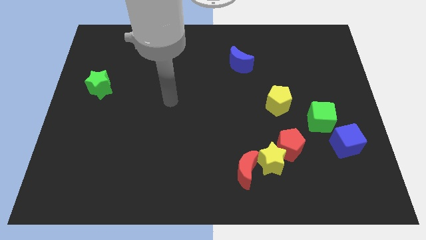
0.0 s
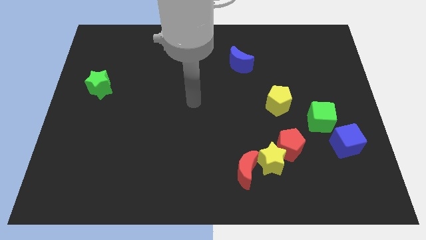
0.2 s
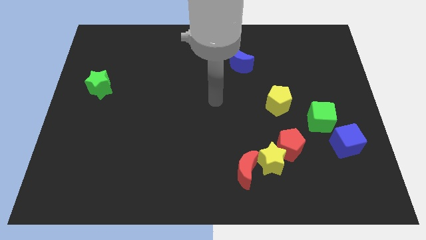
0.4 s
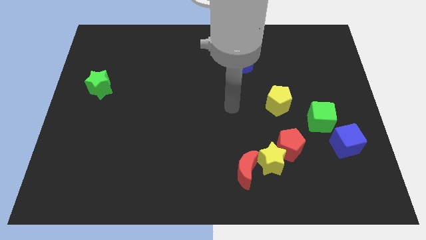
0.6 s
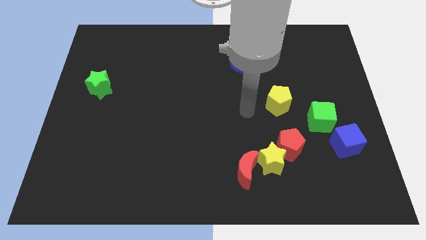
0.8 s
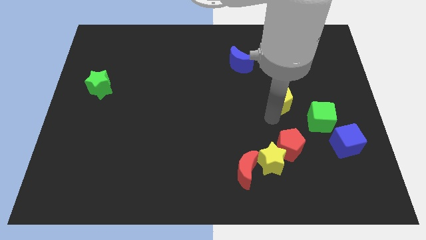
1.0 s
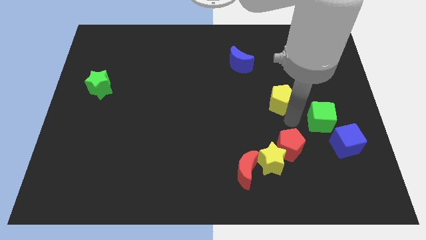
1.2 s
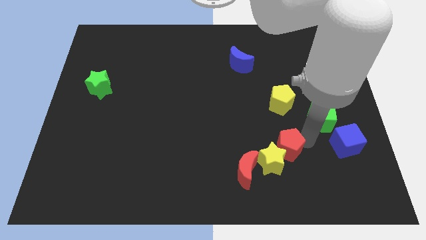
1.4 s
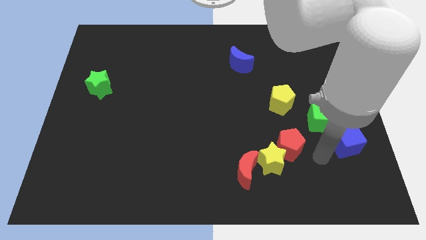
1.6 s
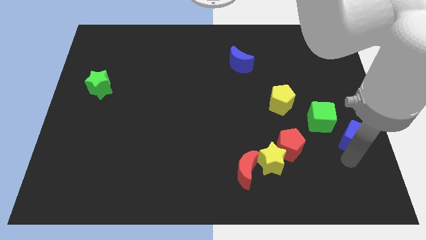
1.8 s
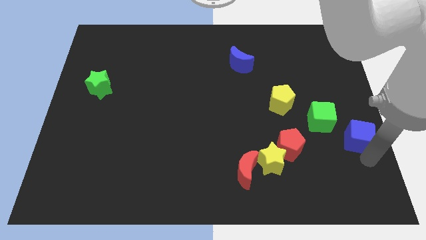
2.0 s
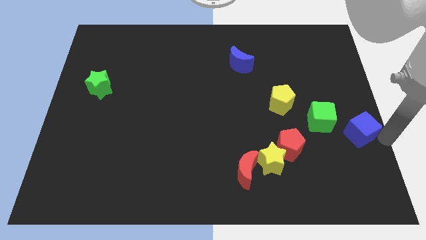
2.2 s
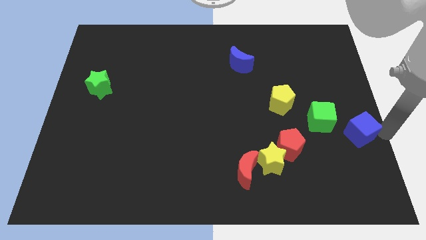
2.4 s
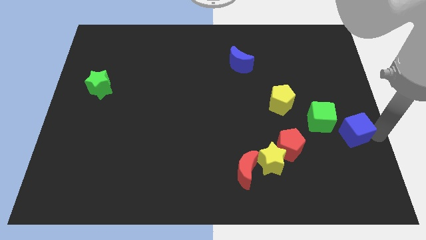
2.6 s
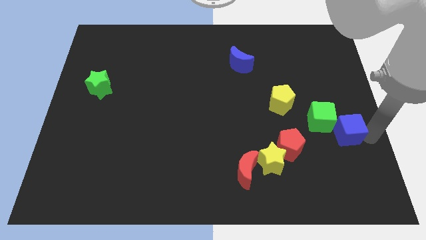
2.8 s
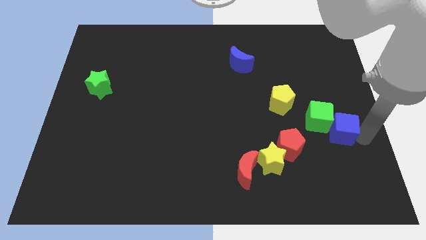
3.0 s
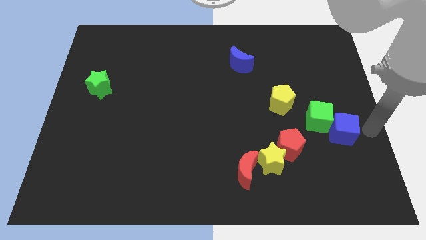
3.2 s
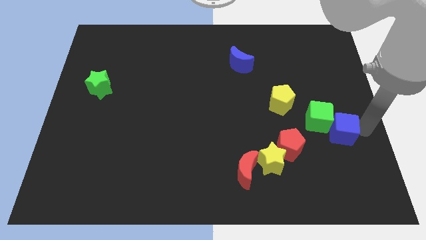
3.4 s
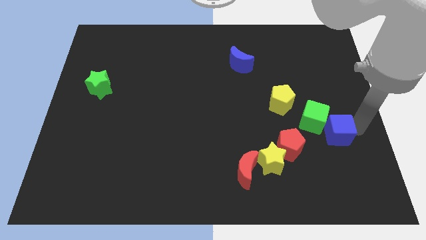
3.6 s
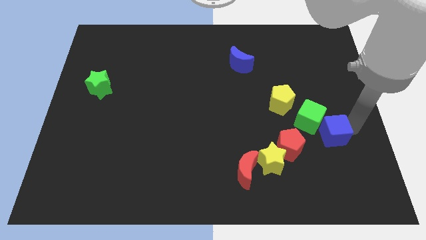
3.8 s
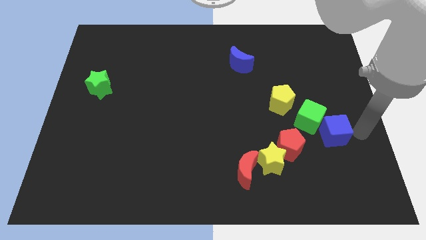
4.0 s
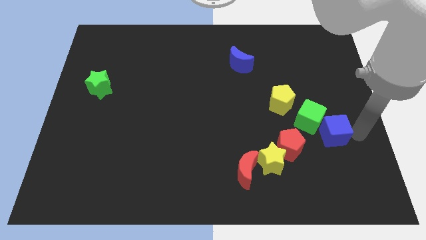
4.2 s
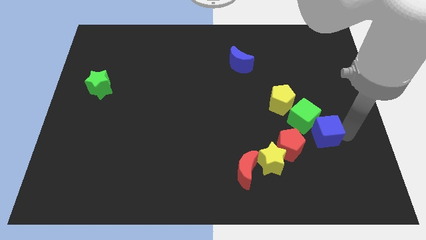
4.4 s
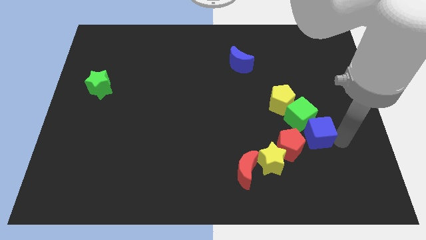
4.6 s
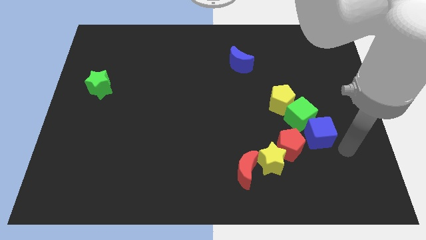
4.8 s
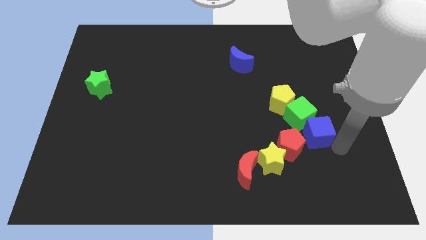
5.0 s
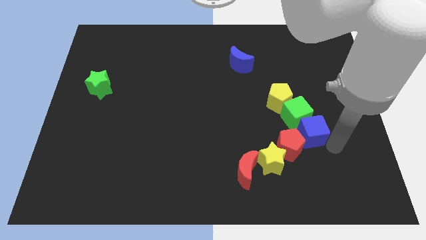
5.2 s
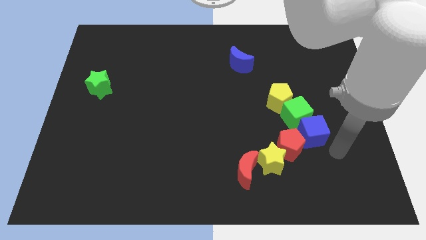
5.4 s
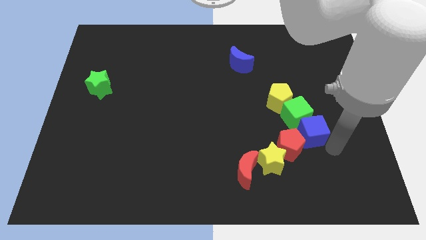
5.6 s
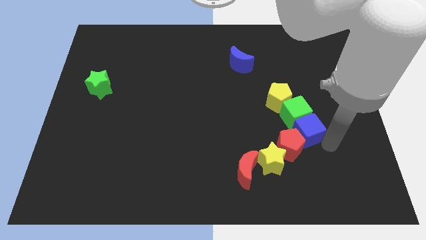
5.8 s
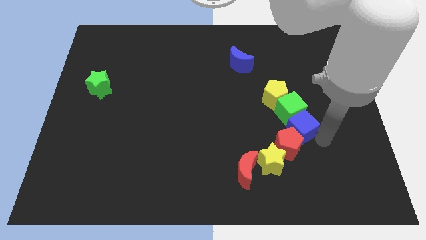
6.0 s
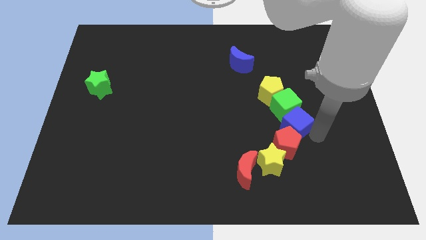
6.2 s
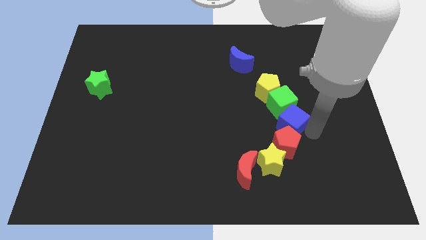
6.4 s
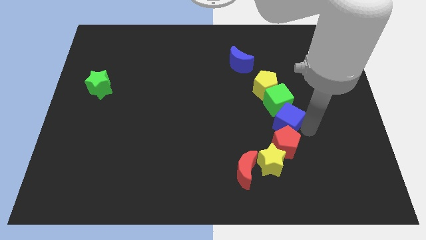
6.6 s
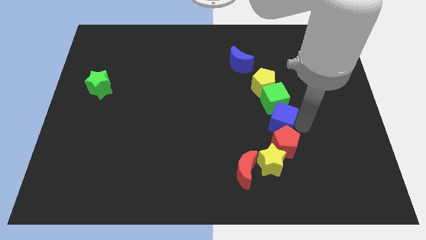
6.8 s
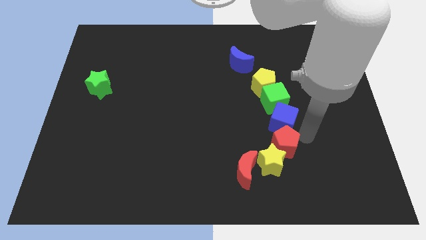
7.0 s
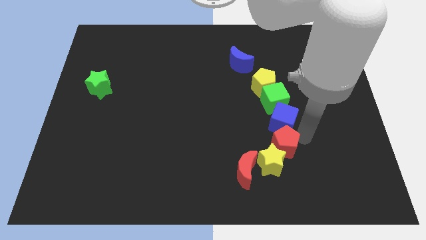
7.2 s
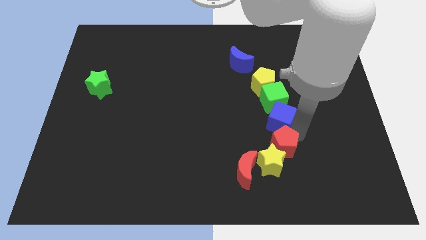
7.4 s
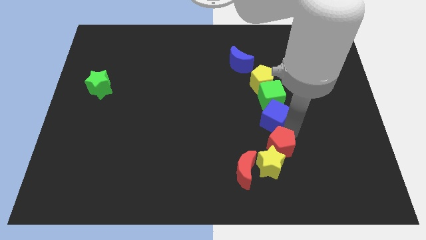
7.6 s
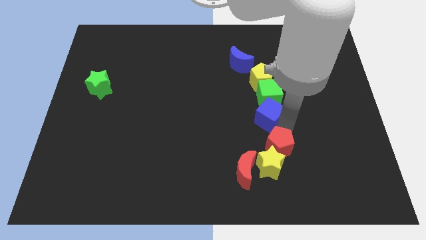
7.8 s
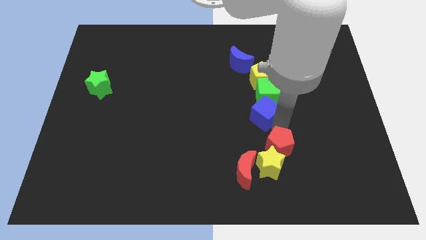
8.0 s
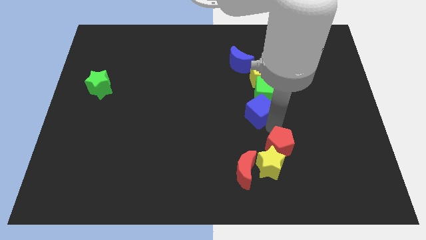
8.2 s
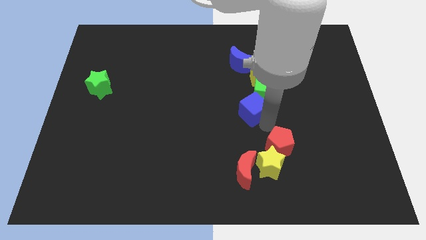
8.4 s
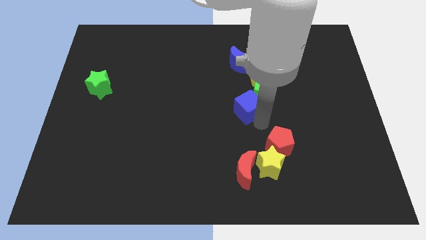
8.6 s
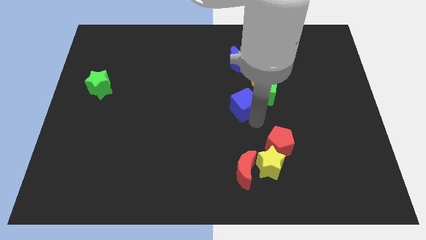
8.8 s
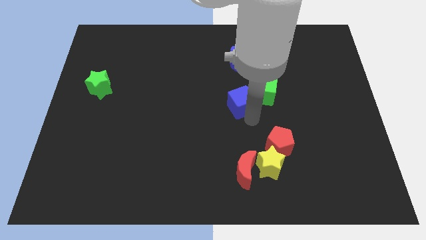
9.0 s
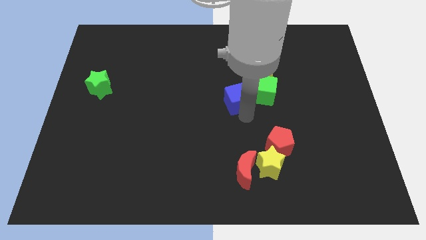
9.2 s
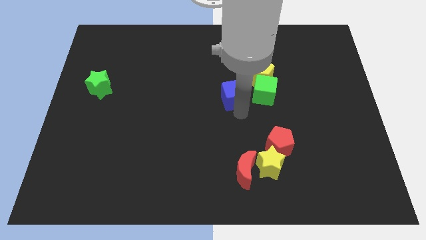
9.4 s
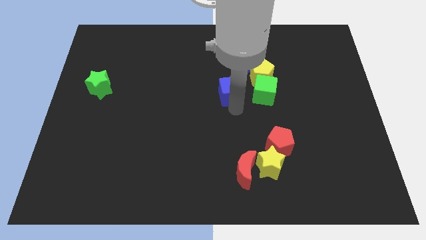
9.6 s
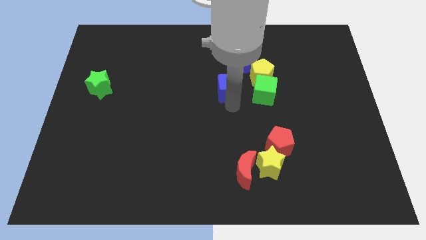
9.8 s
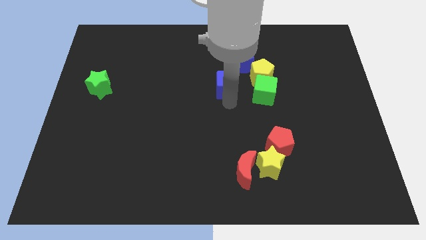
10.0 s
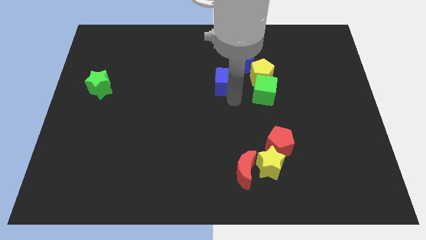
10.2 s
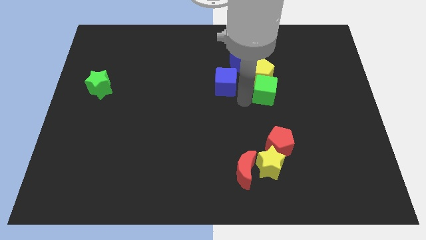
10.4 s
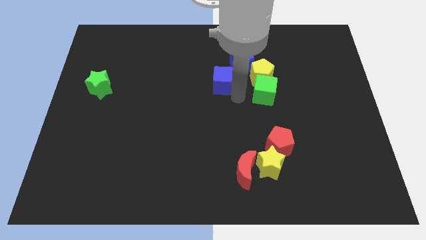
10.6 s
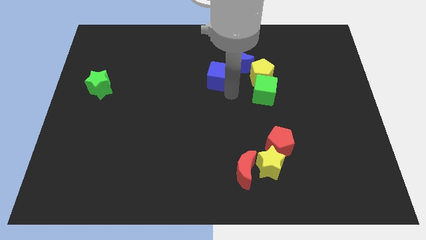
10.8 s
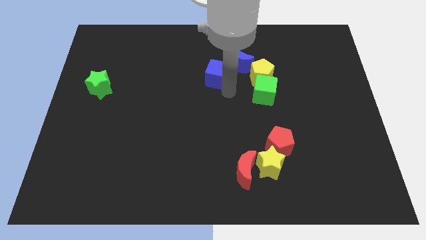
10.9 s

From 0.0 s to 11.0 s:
put the blue cube just left of the blue moon

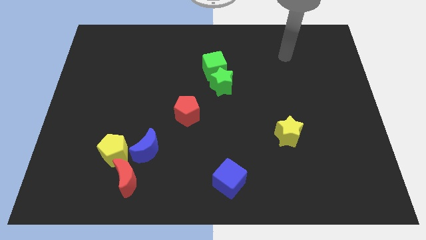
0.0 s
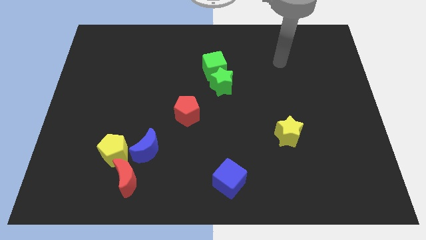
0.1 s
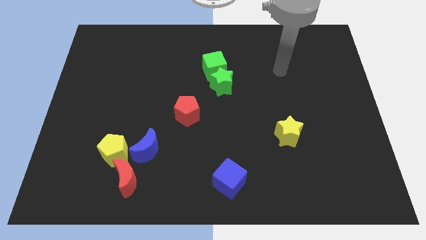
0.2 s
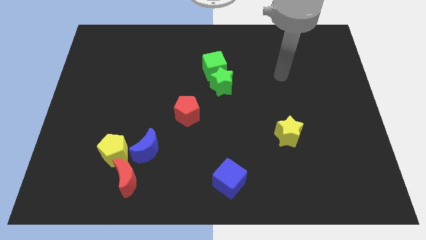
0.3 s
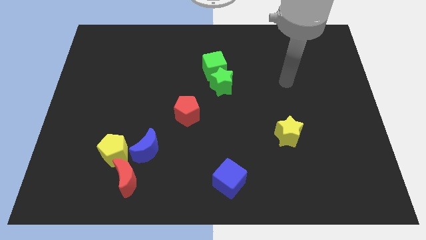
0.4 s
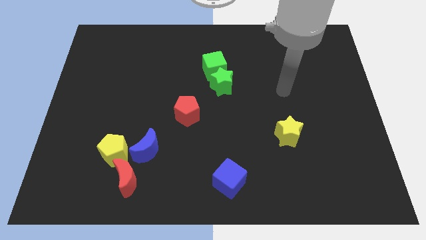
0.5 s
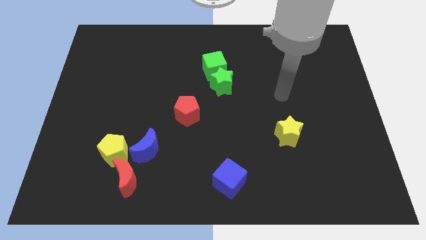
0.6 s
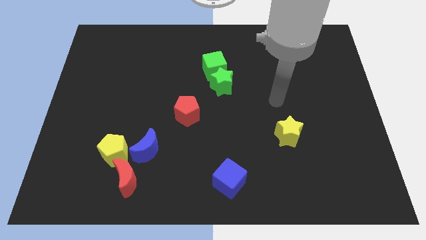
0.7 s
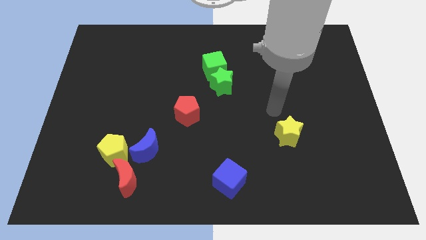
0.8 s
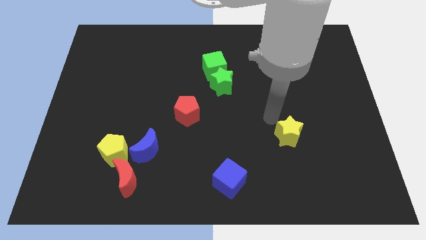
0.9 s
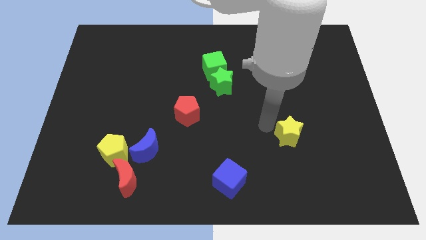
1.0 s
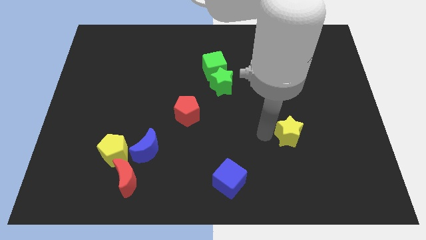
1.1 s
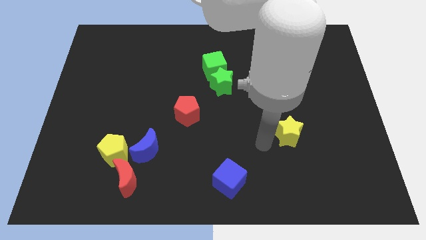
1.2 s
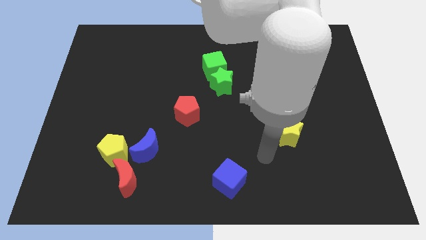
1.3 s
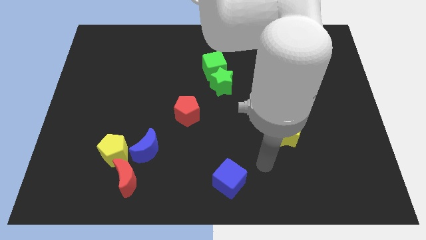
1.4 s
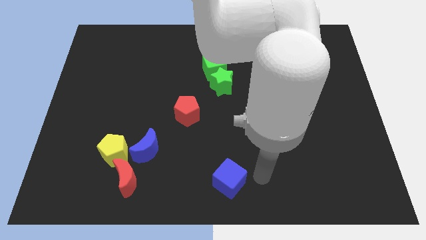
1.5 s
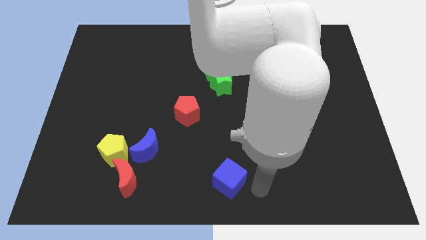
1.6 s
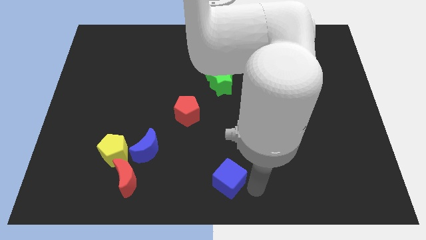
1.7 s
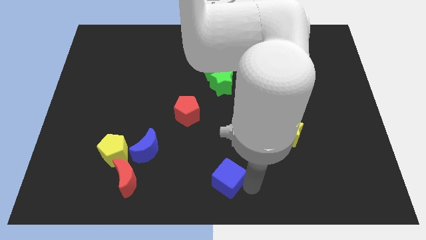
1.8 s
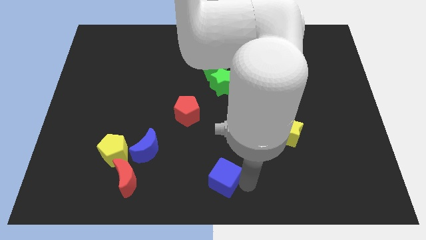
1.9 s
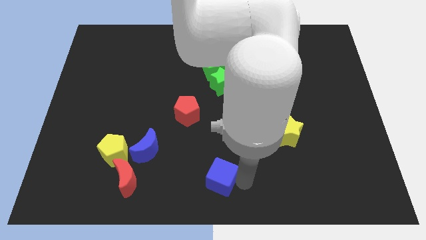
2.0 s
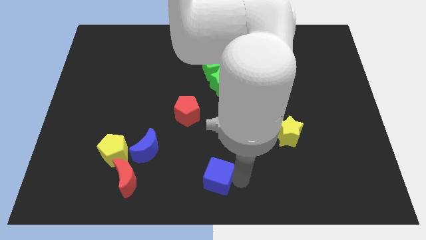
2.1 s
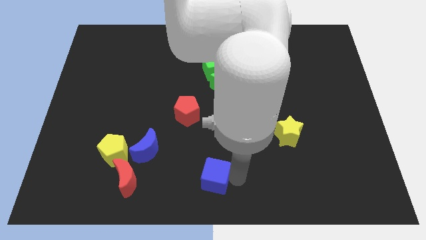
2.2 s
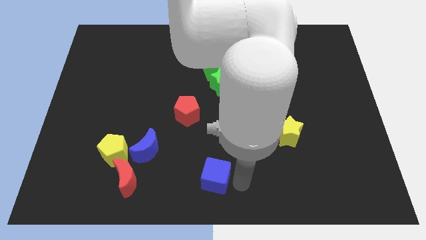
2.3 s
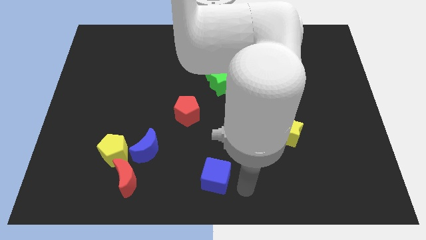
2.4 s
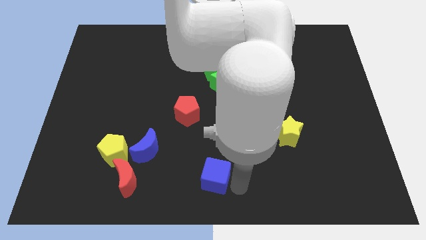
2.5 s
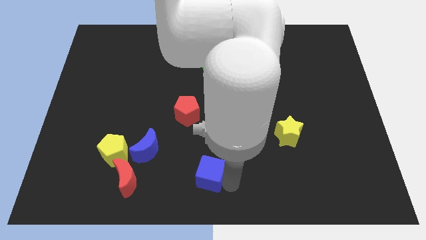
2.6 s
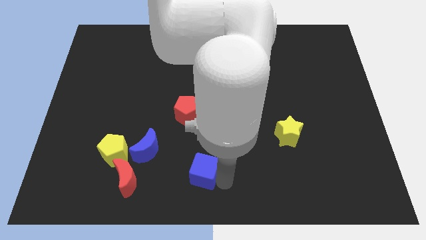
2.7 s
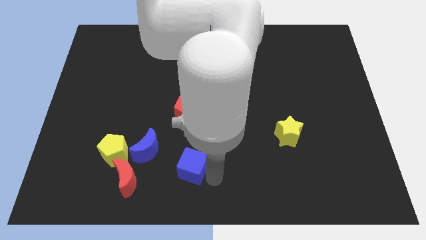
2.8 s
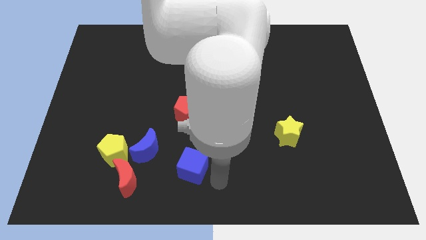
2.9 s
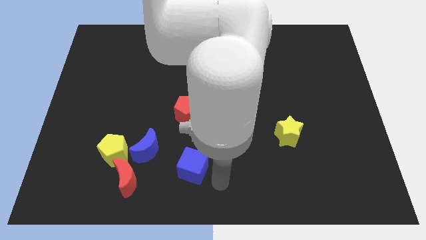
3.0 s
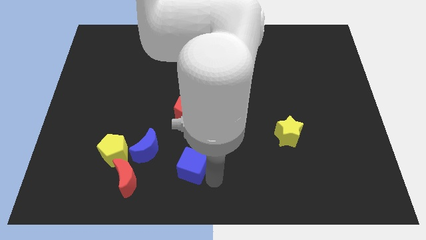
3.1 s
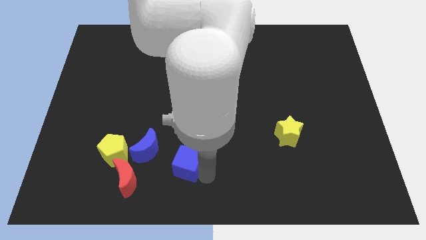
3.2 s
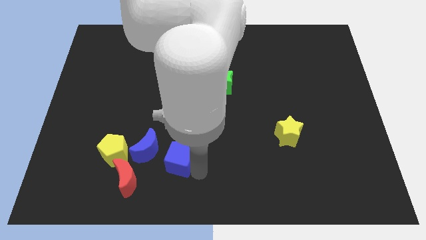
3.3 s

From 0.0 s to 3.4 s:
push the blue cube to the right side of the yellow pentagon
